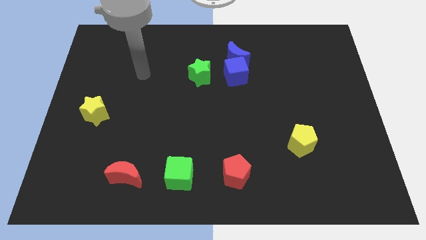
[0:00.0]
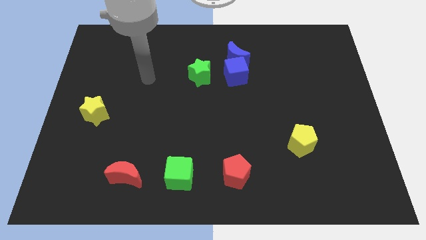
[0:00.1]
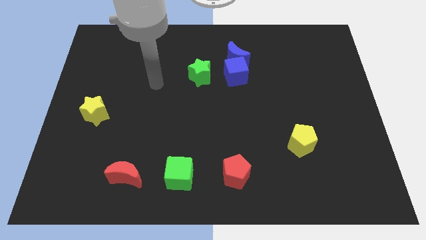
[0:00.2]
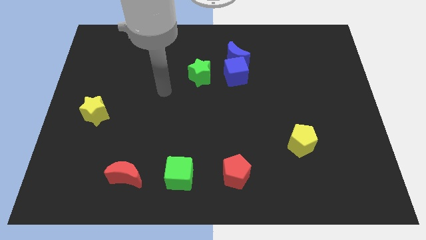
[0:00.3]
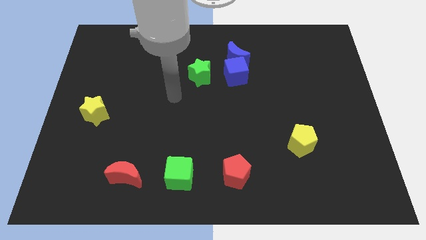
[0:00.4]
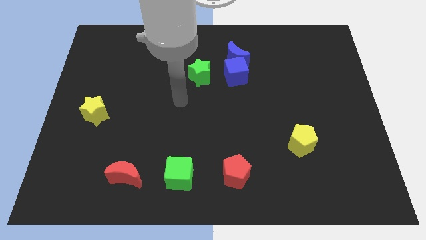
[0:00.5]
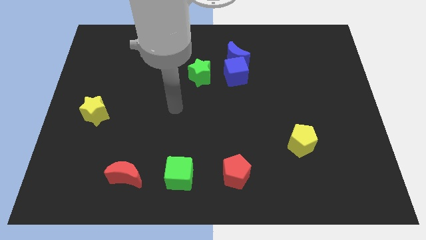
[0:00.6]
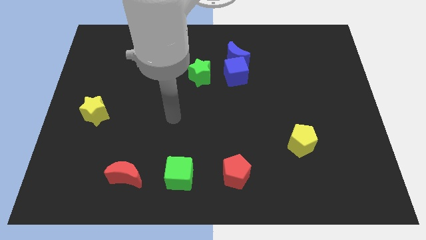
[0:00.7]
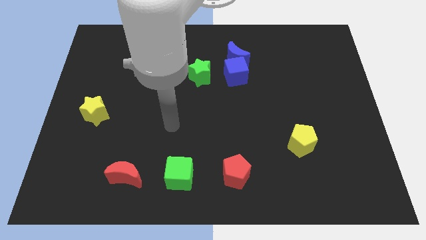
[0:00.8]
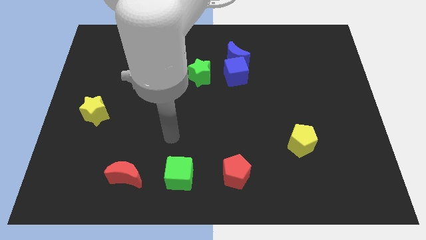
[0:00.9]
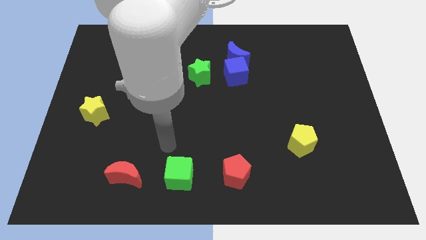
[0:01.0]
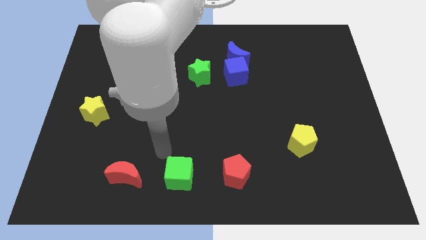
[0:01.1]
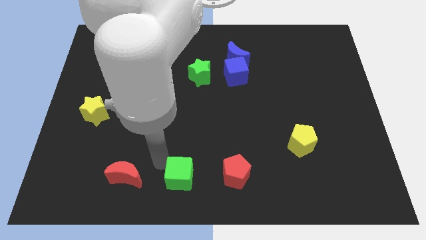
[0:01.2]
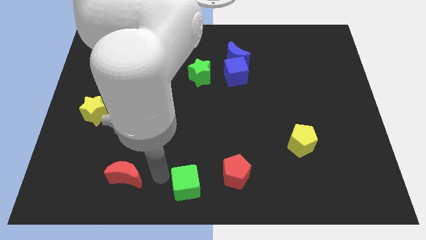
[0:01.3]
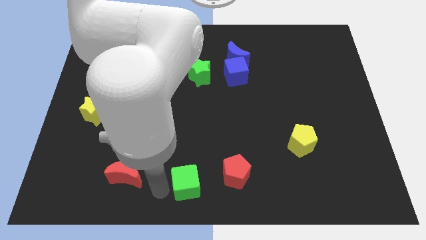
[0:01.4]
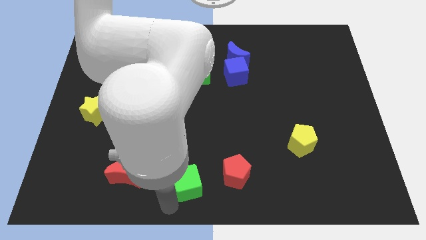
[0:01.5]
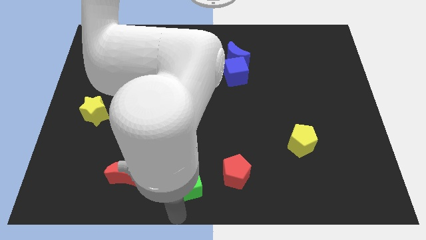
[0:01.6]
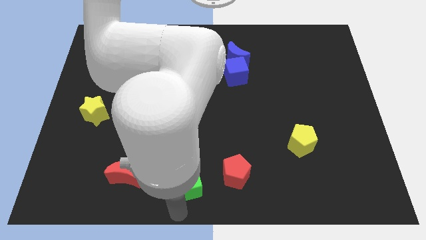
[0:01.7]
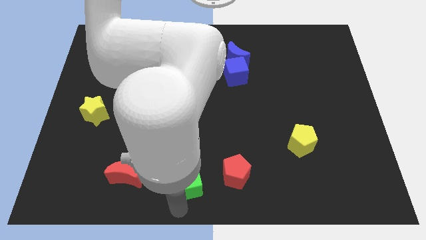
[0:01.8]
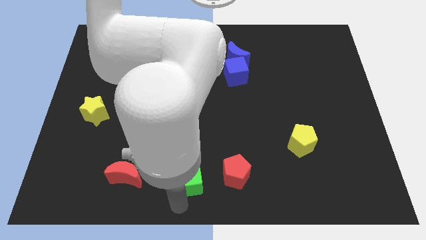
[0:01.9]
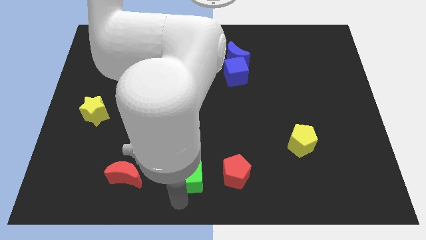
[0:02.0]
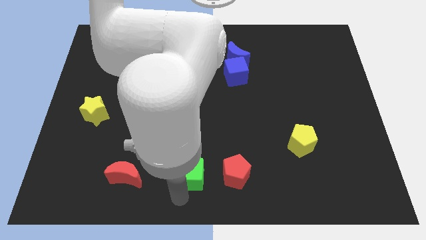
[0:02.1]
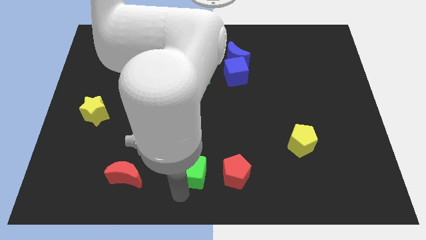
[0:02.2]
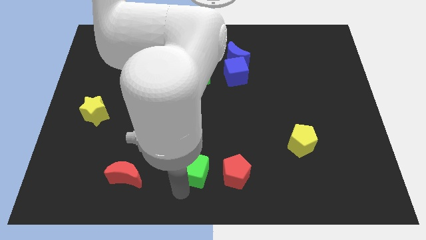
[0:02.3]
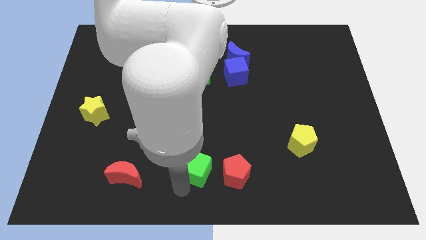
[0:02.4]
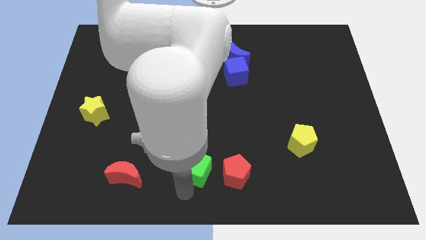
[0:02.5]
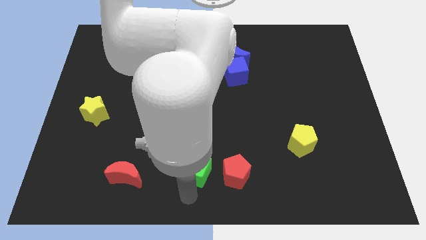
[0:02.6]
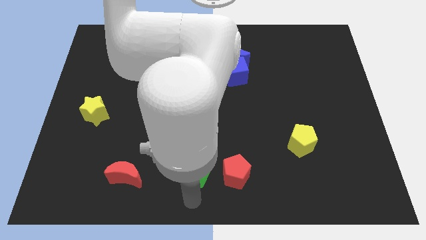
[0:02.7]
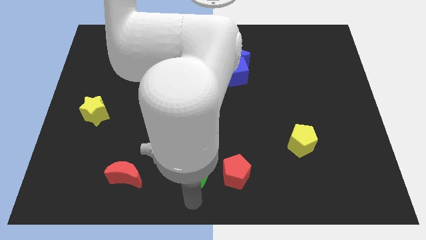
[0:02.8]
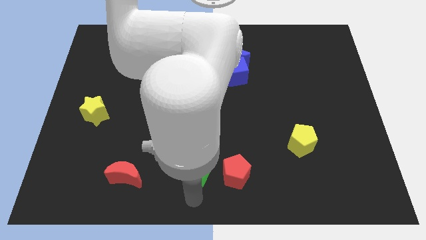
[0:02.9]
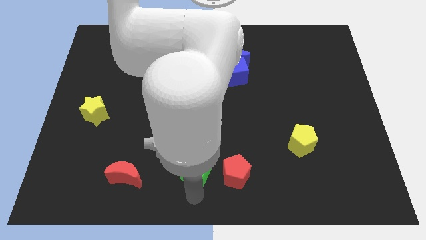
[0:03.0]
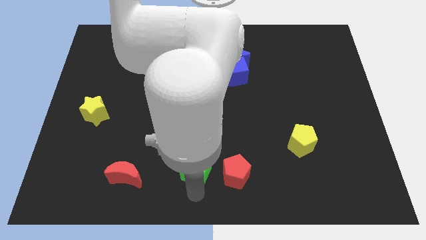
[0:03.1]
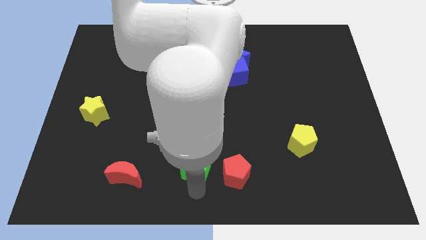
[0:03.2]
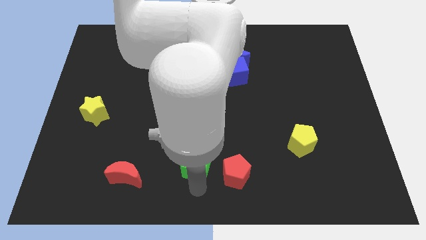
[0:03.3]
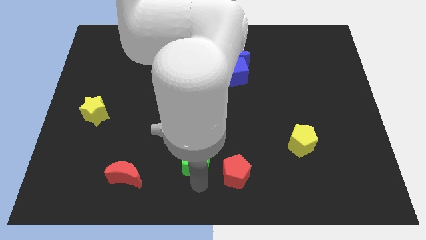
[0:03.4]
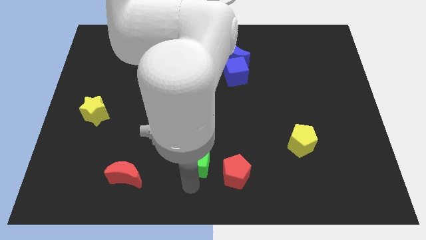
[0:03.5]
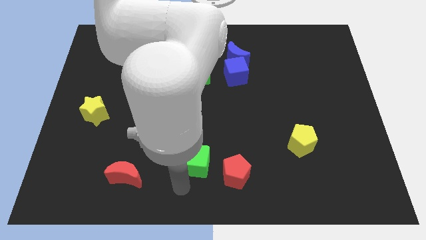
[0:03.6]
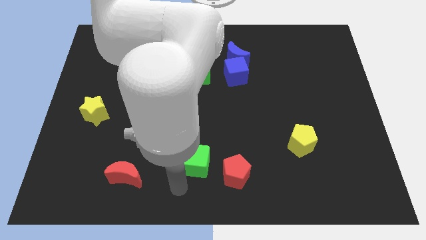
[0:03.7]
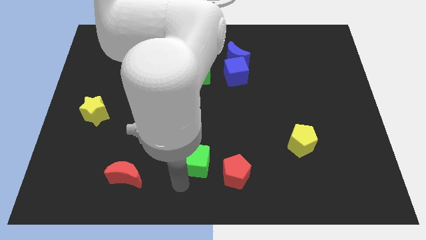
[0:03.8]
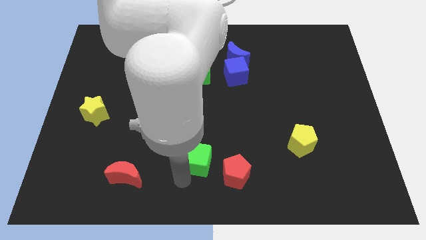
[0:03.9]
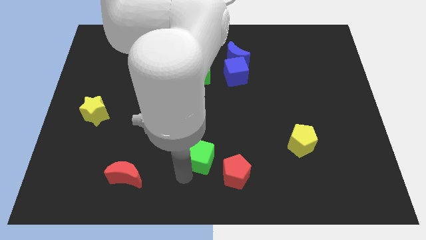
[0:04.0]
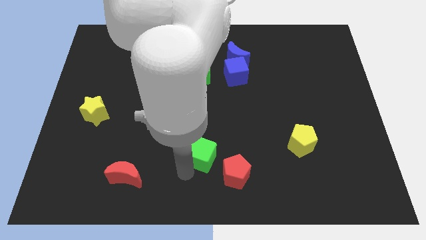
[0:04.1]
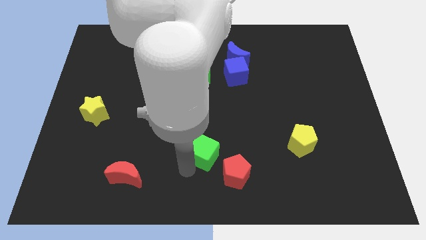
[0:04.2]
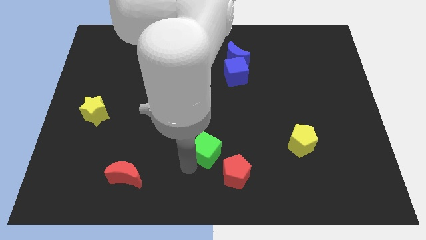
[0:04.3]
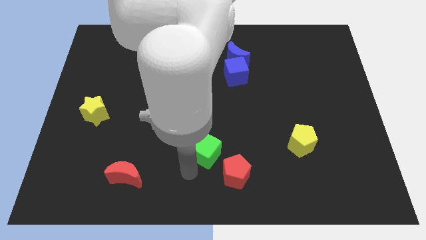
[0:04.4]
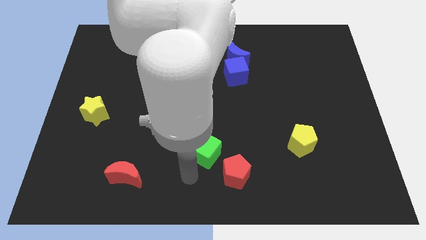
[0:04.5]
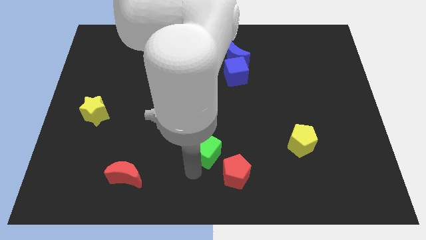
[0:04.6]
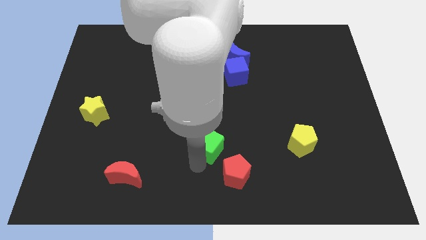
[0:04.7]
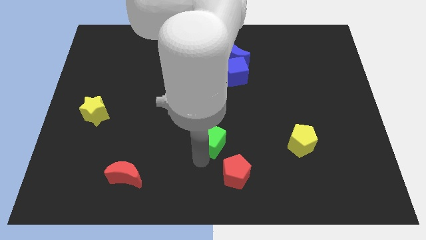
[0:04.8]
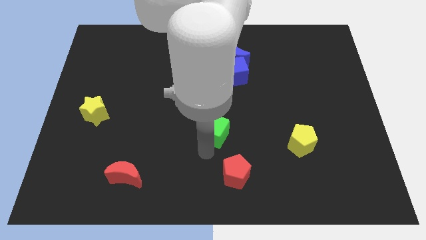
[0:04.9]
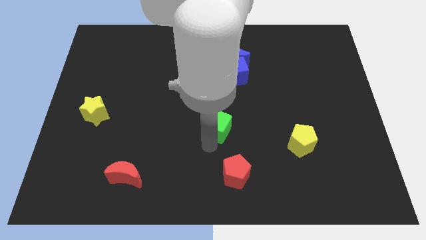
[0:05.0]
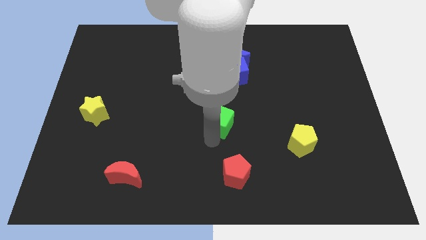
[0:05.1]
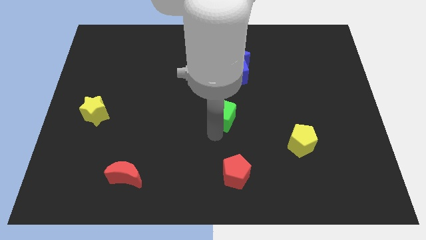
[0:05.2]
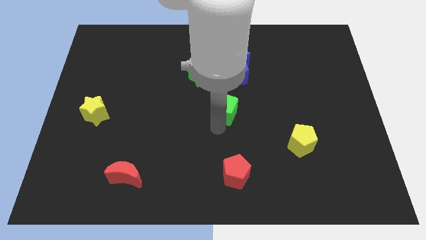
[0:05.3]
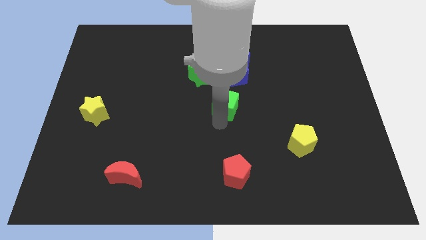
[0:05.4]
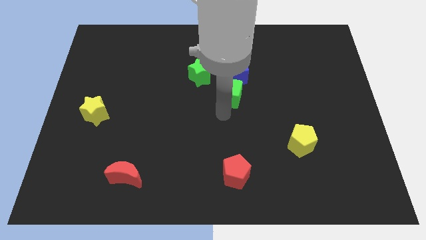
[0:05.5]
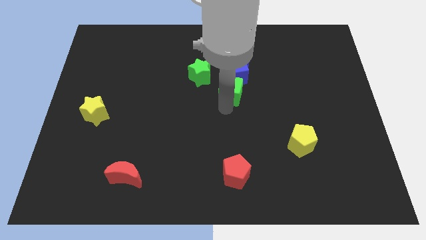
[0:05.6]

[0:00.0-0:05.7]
put the green cube to the blue cube

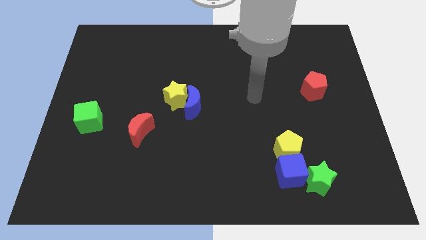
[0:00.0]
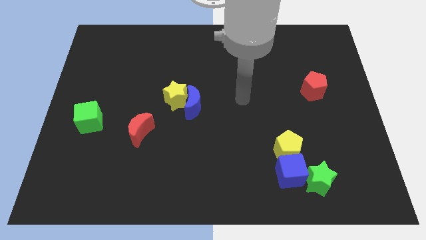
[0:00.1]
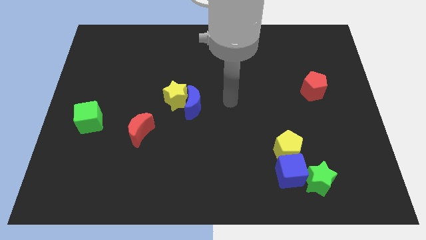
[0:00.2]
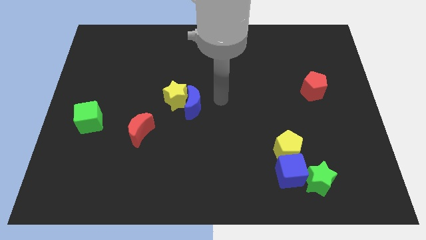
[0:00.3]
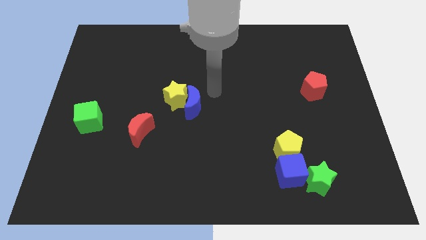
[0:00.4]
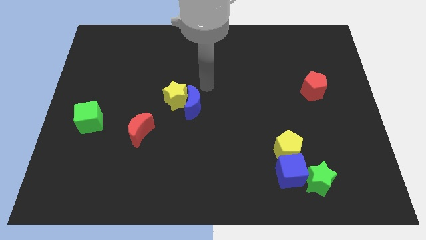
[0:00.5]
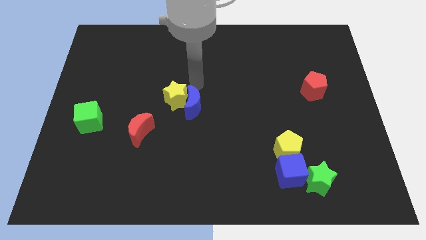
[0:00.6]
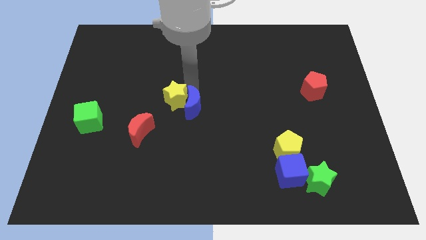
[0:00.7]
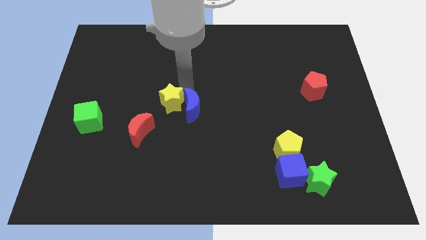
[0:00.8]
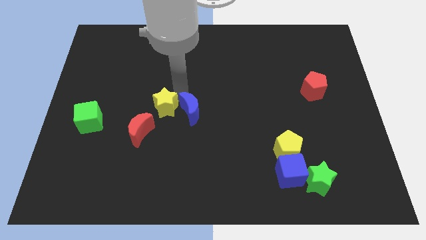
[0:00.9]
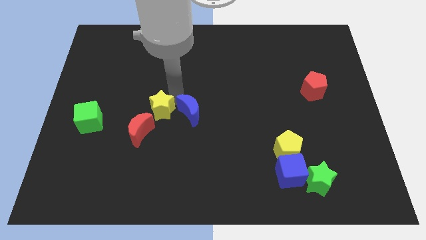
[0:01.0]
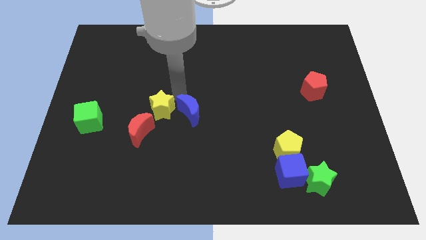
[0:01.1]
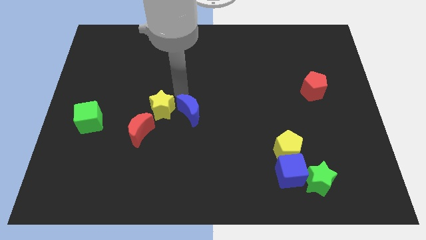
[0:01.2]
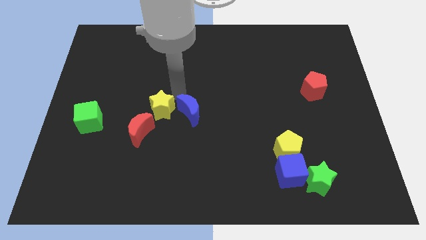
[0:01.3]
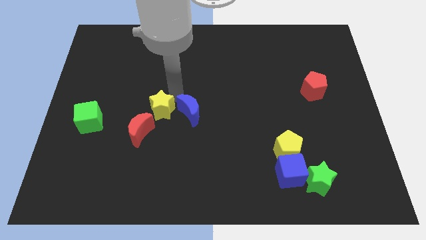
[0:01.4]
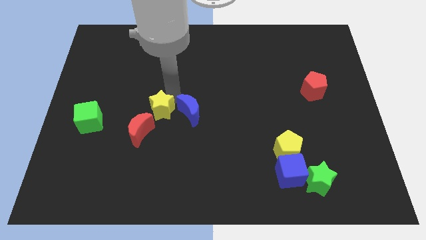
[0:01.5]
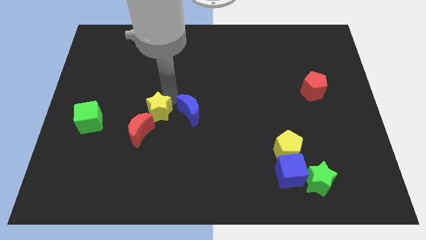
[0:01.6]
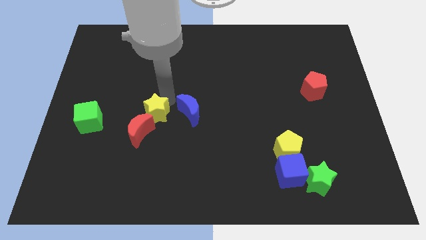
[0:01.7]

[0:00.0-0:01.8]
put the yellow star towards the red moon
